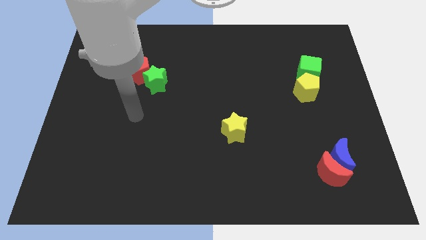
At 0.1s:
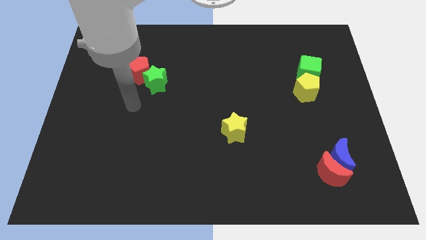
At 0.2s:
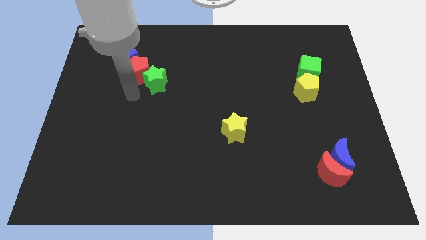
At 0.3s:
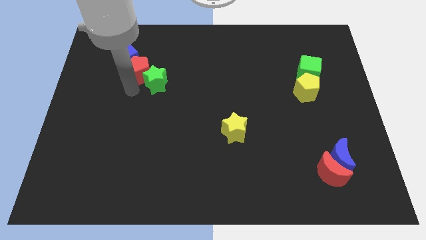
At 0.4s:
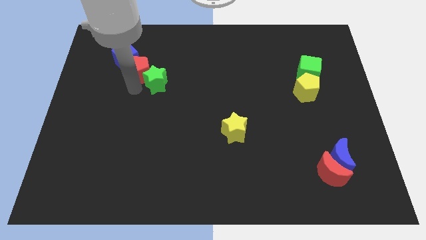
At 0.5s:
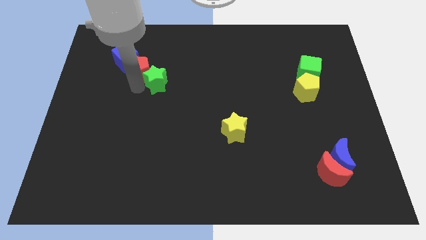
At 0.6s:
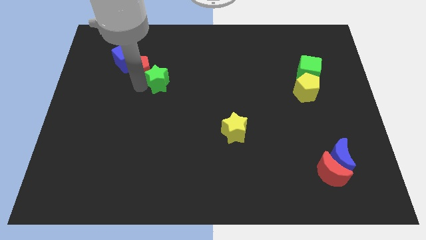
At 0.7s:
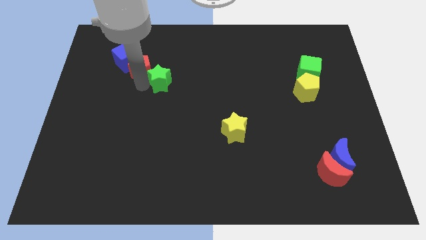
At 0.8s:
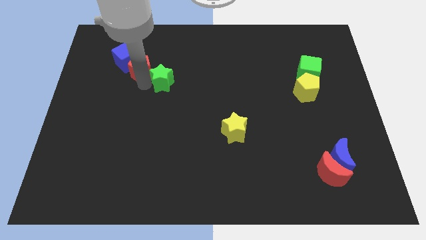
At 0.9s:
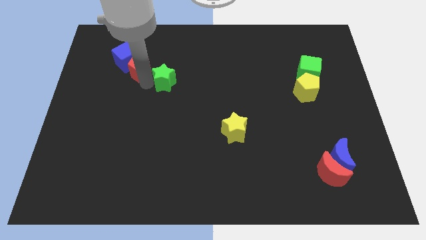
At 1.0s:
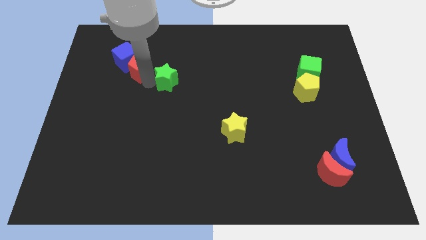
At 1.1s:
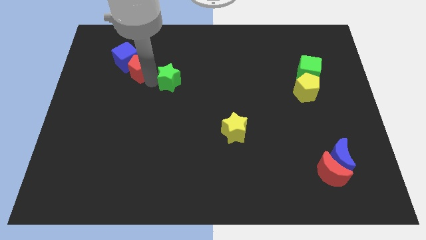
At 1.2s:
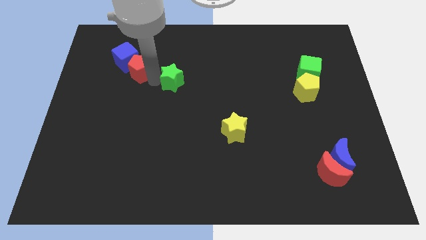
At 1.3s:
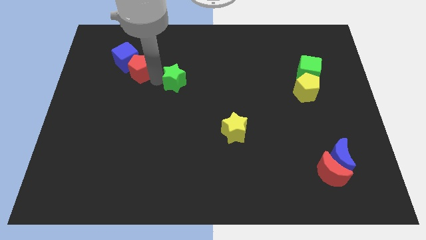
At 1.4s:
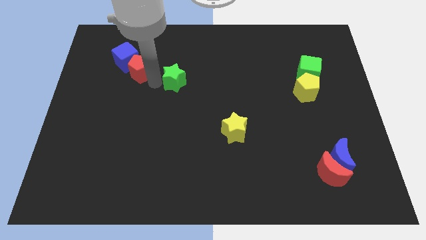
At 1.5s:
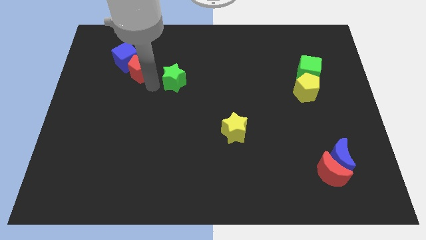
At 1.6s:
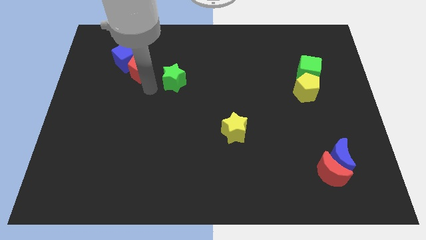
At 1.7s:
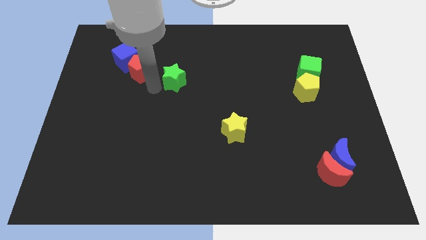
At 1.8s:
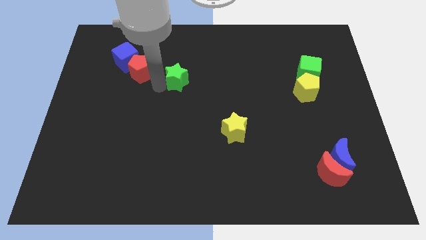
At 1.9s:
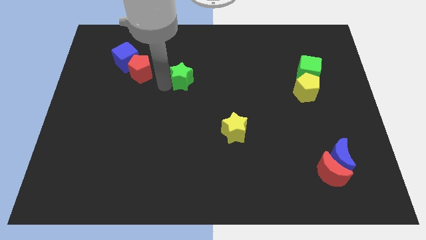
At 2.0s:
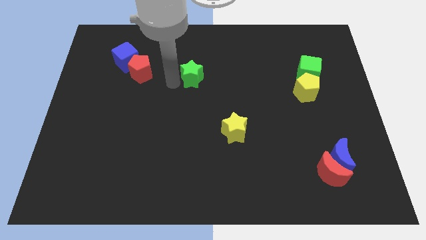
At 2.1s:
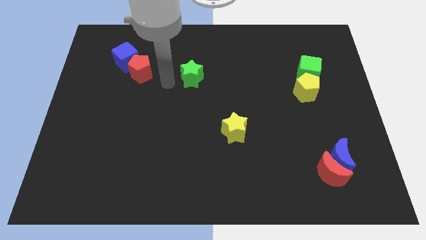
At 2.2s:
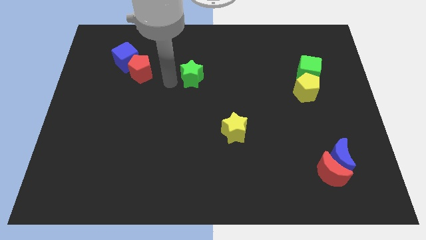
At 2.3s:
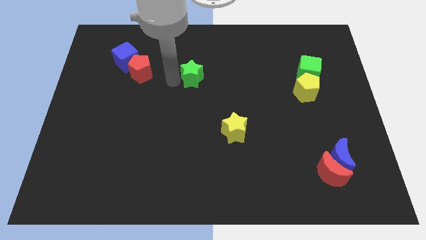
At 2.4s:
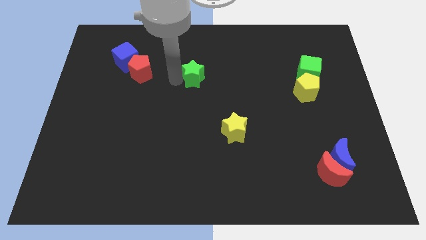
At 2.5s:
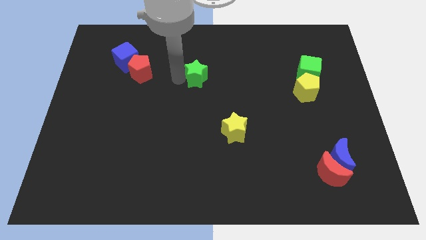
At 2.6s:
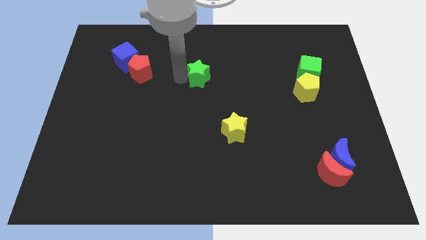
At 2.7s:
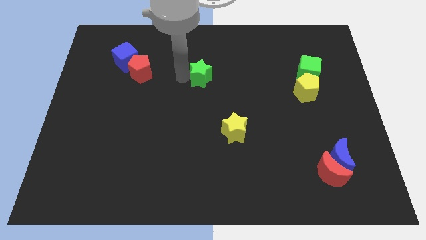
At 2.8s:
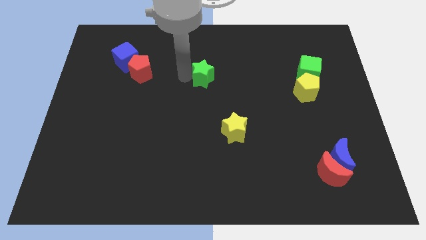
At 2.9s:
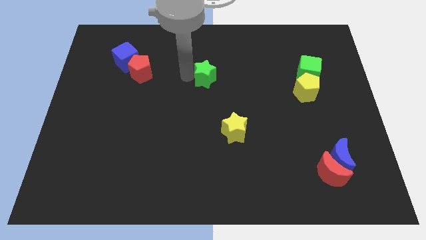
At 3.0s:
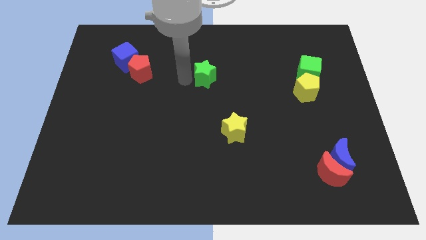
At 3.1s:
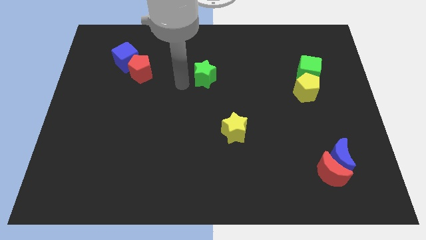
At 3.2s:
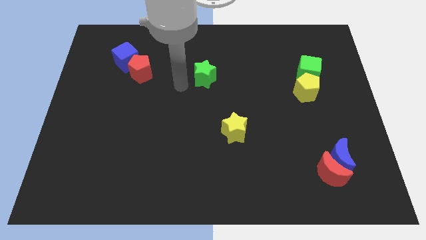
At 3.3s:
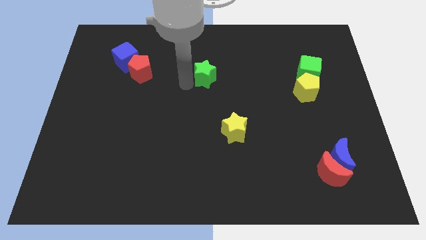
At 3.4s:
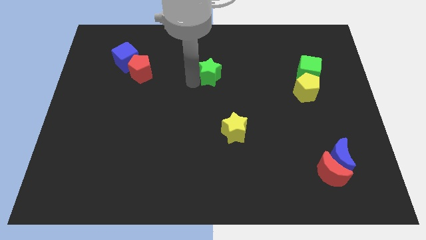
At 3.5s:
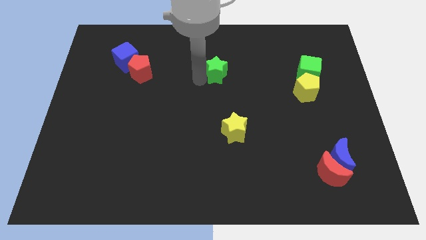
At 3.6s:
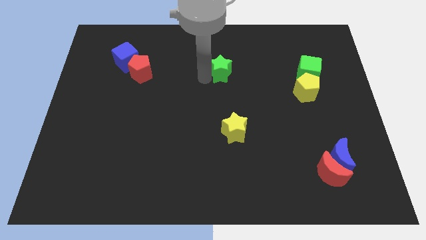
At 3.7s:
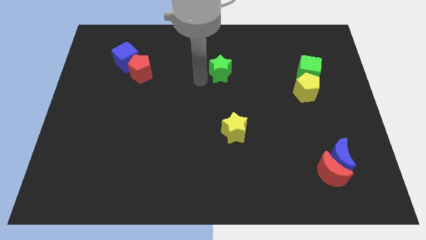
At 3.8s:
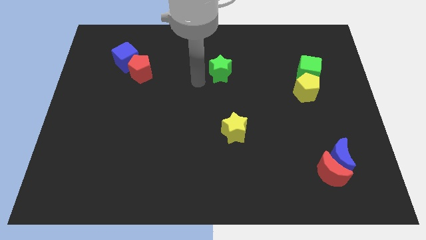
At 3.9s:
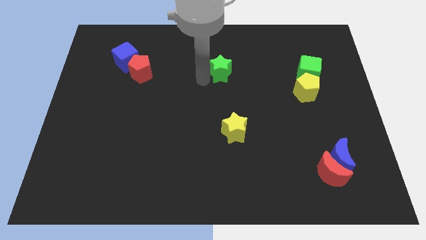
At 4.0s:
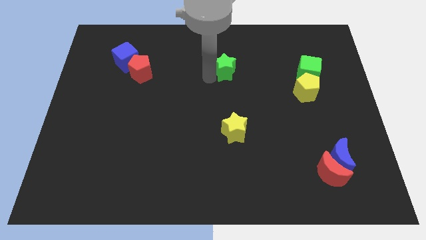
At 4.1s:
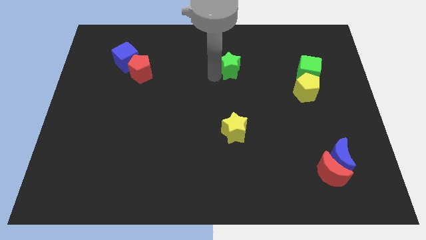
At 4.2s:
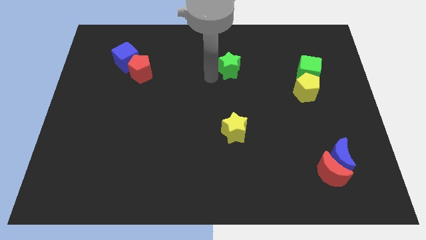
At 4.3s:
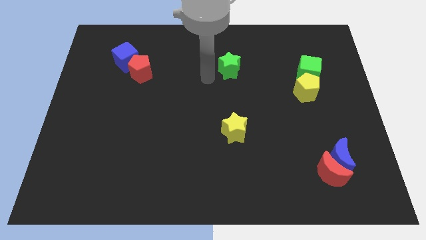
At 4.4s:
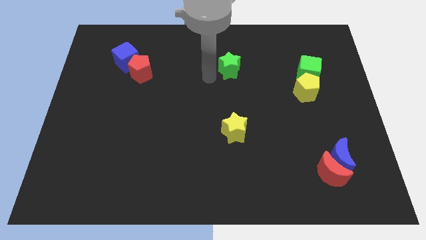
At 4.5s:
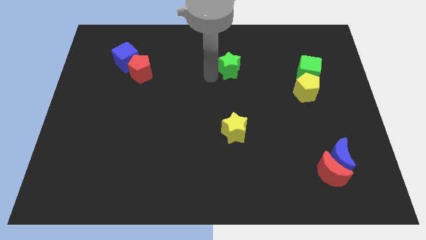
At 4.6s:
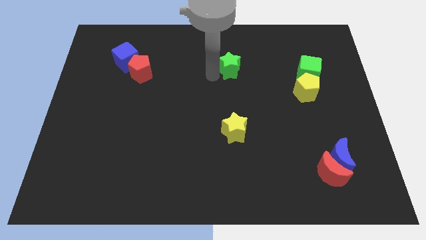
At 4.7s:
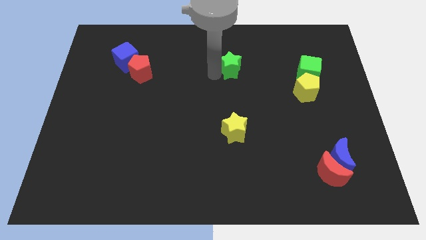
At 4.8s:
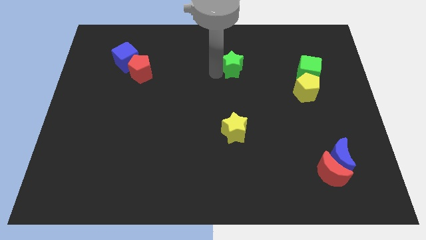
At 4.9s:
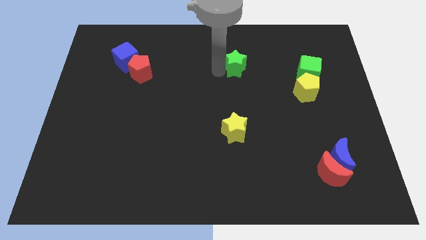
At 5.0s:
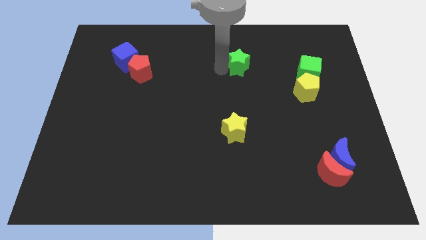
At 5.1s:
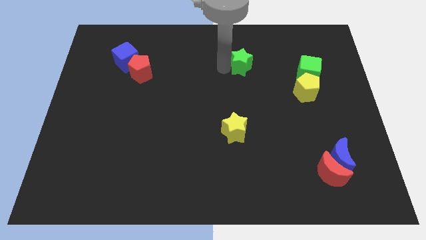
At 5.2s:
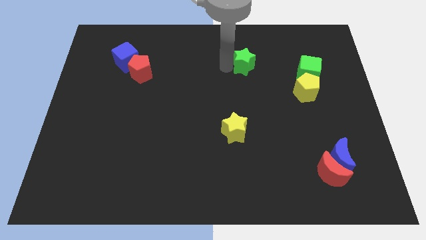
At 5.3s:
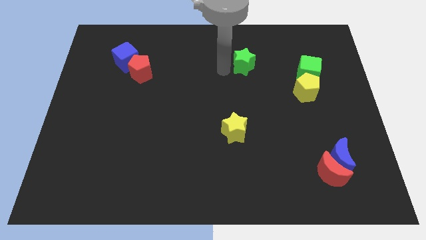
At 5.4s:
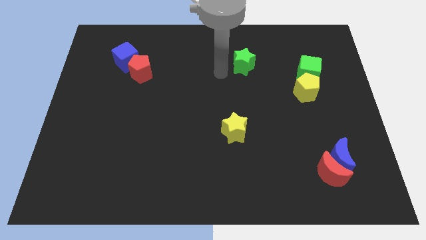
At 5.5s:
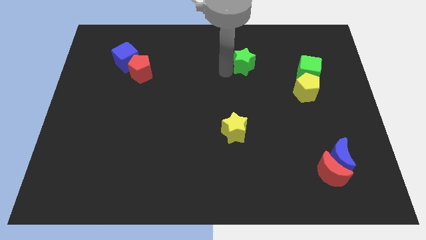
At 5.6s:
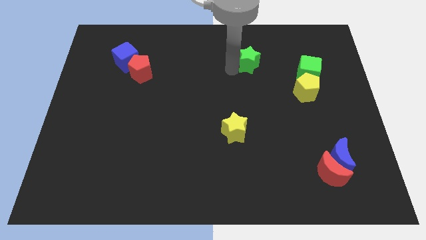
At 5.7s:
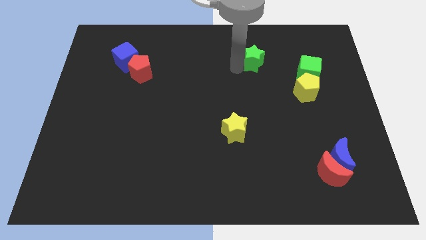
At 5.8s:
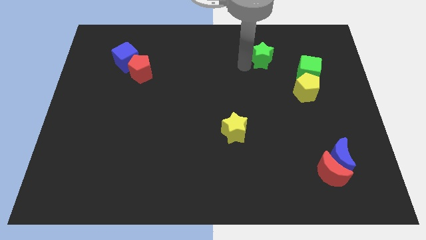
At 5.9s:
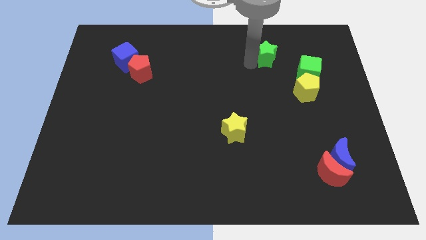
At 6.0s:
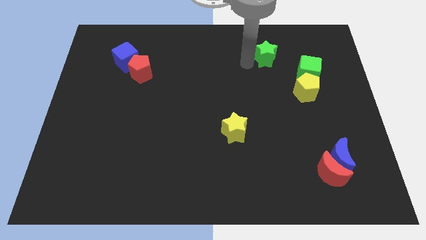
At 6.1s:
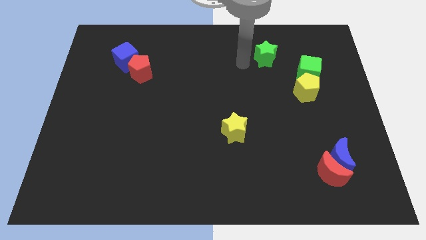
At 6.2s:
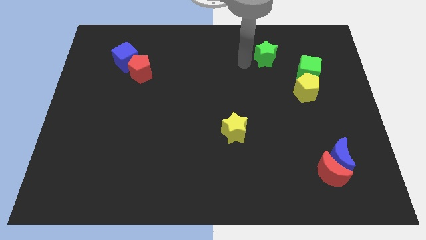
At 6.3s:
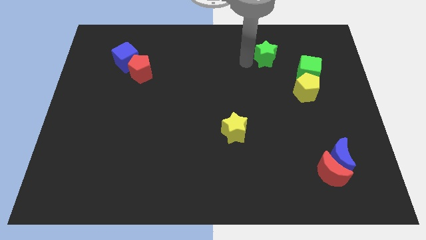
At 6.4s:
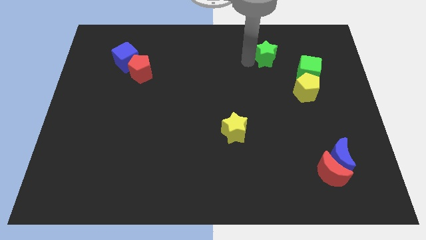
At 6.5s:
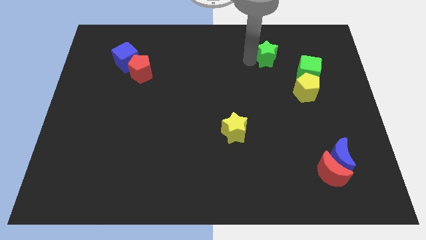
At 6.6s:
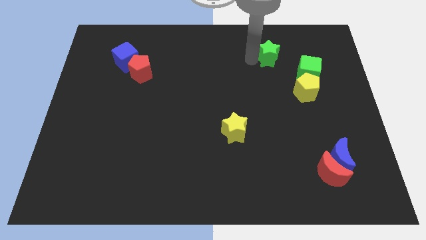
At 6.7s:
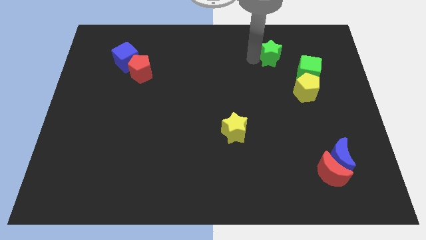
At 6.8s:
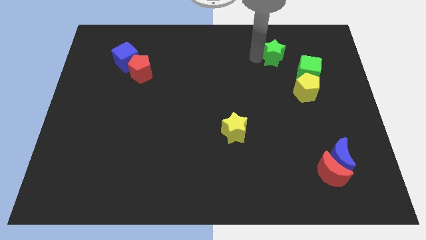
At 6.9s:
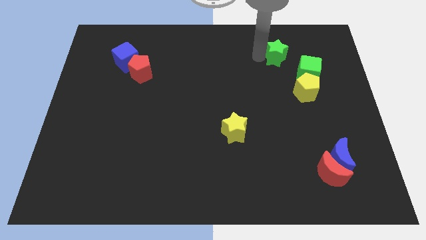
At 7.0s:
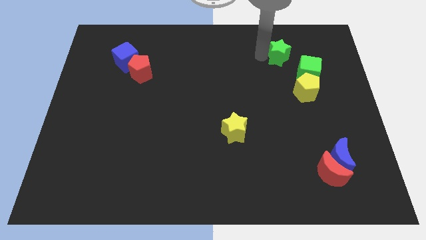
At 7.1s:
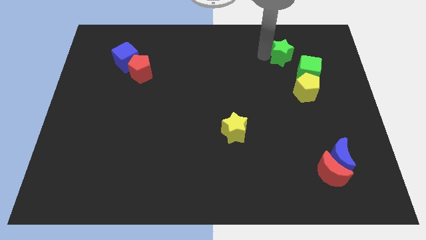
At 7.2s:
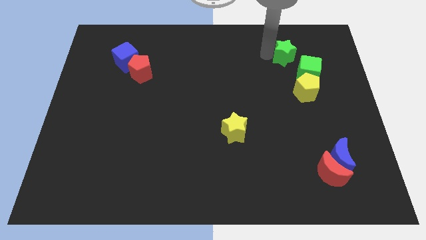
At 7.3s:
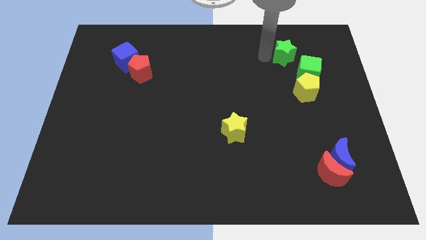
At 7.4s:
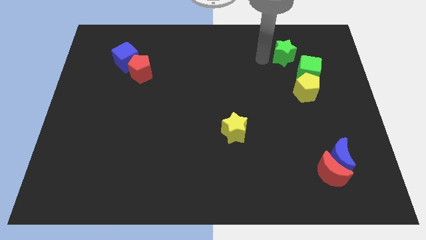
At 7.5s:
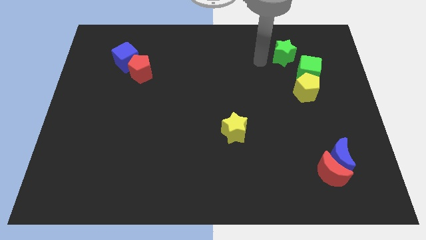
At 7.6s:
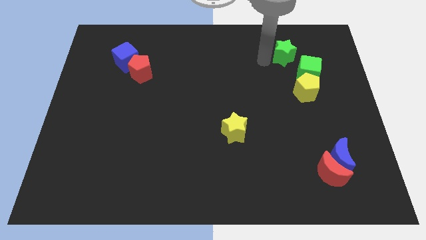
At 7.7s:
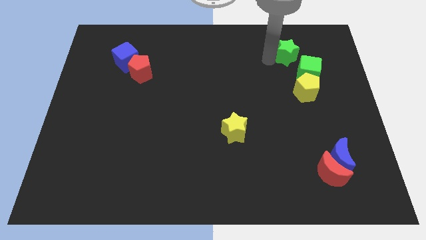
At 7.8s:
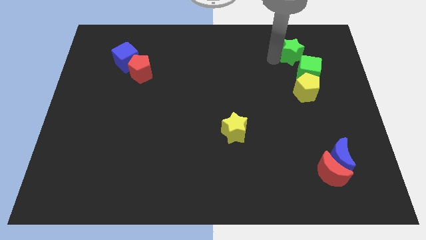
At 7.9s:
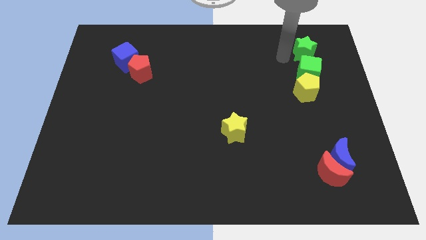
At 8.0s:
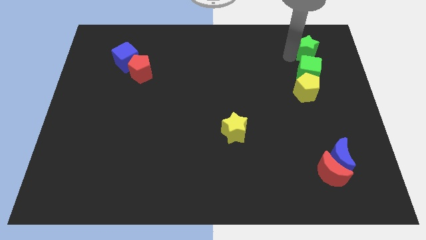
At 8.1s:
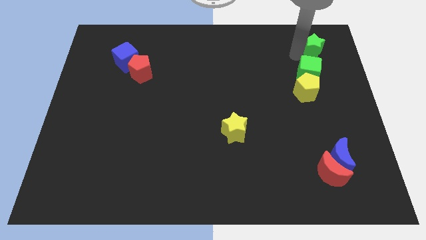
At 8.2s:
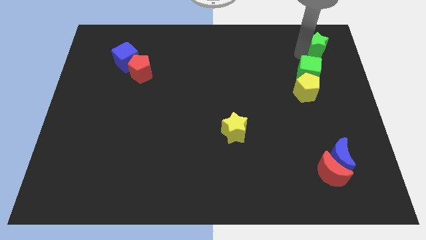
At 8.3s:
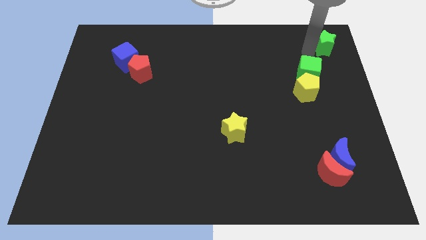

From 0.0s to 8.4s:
move the green star to the top right
